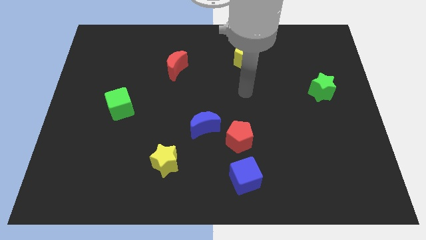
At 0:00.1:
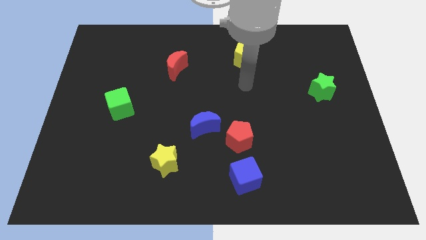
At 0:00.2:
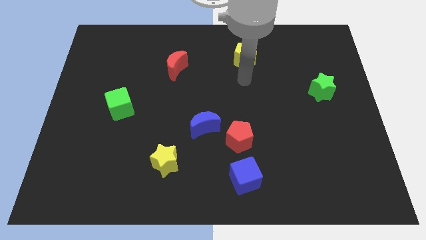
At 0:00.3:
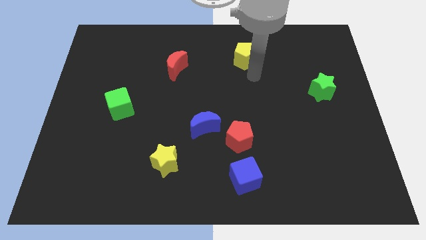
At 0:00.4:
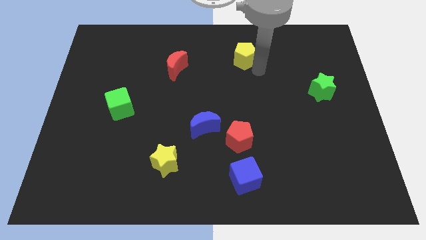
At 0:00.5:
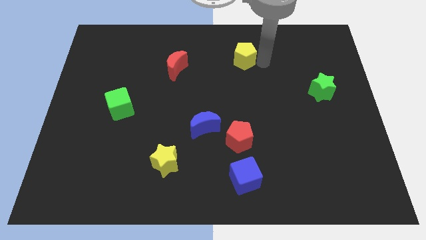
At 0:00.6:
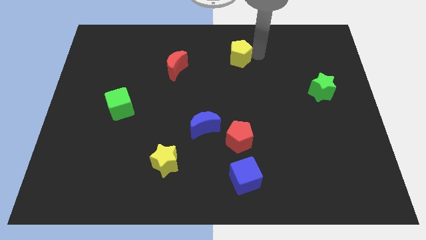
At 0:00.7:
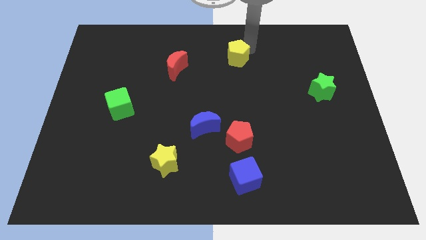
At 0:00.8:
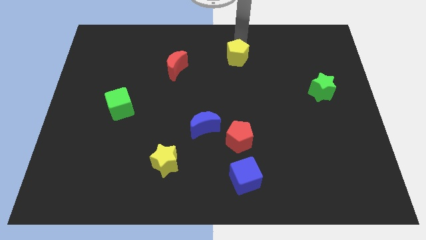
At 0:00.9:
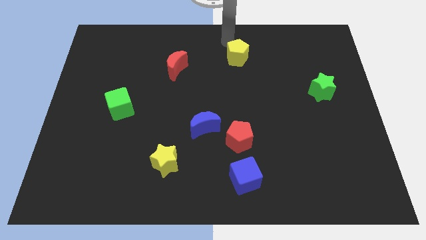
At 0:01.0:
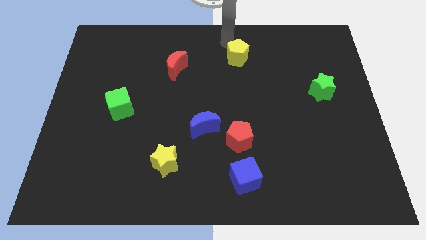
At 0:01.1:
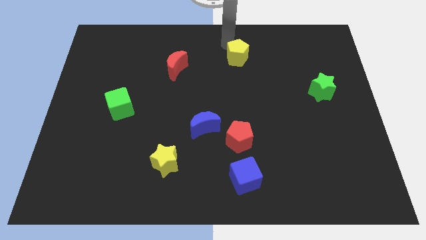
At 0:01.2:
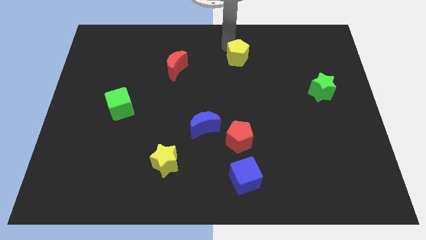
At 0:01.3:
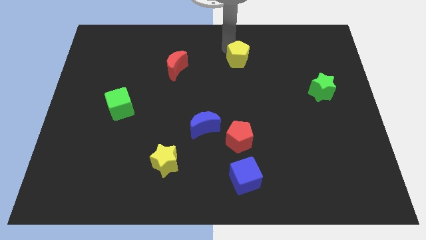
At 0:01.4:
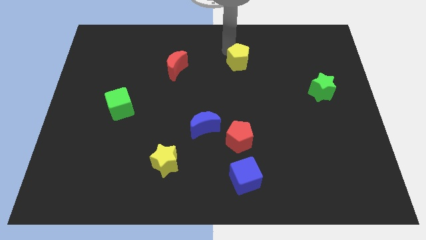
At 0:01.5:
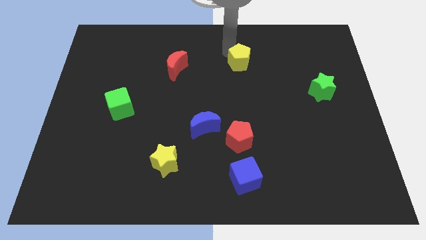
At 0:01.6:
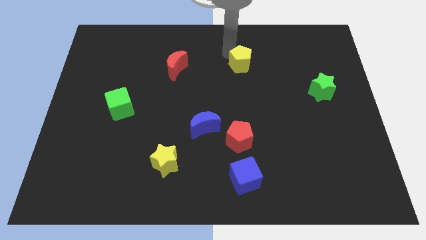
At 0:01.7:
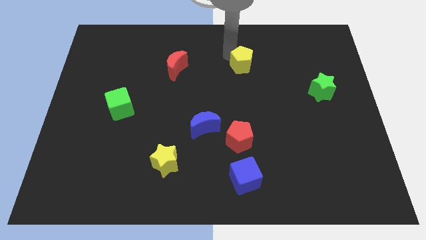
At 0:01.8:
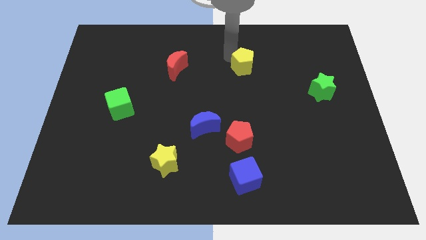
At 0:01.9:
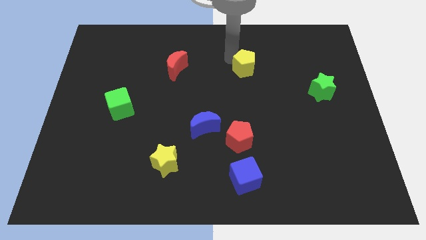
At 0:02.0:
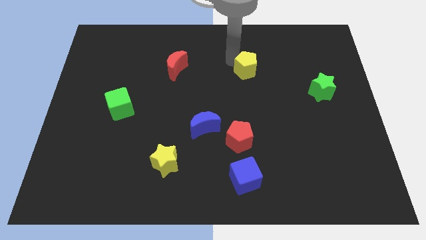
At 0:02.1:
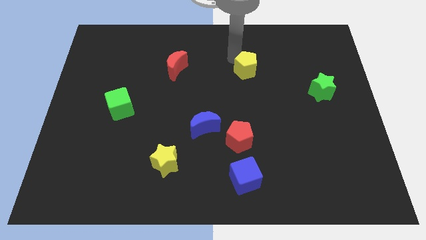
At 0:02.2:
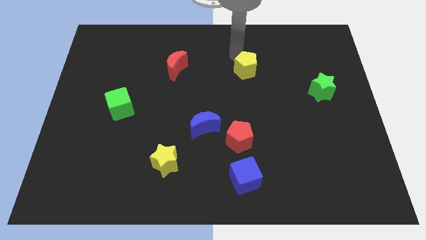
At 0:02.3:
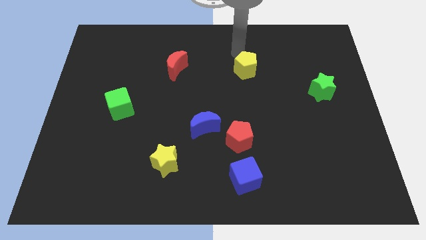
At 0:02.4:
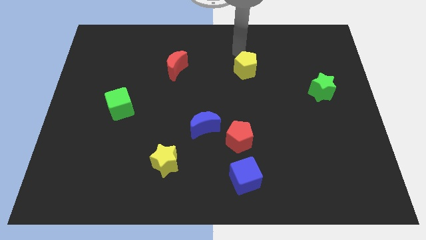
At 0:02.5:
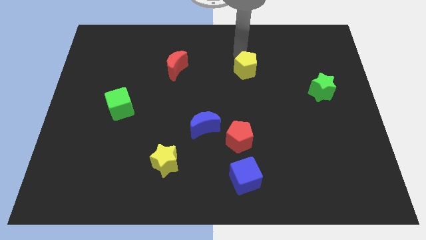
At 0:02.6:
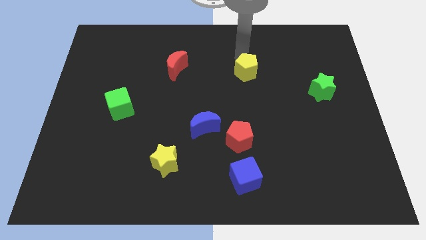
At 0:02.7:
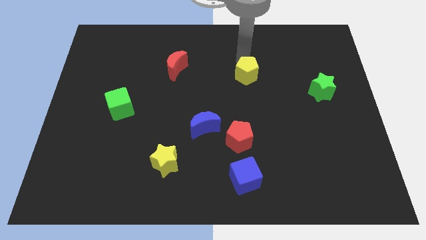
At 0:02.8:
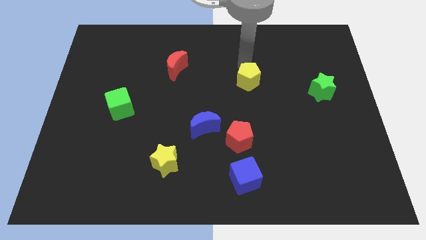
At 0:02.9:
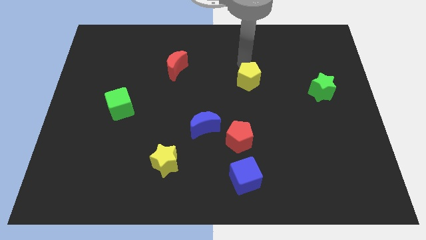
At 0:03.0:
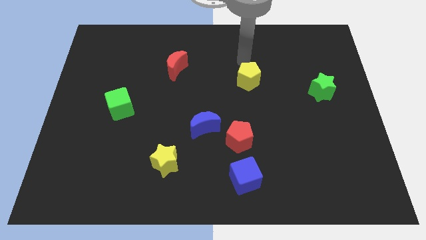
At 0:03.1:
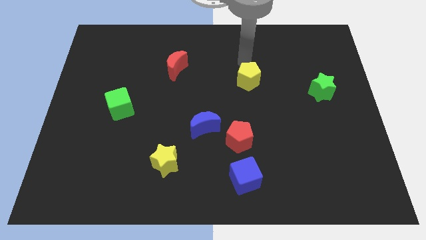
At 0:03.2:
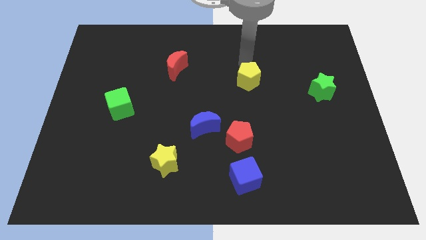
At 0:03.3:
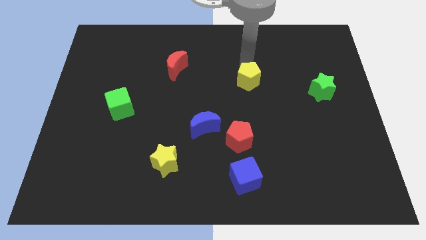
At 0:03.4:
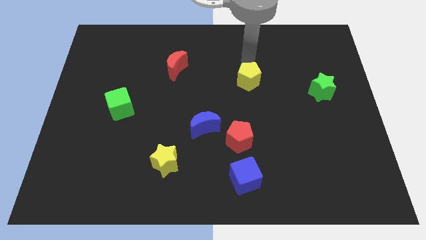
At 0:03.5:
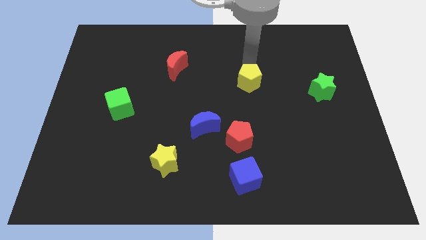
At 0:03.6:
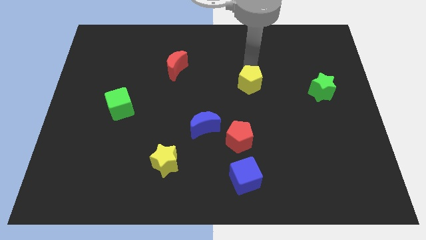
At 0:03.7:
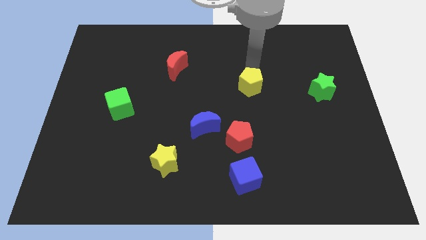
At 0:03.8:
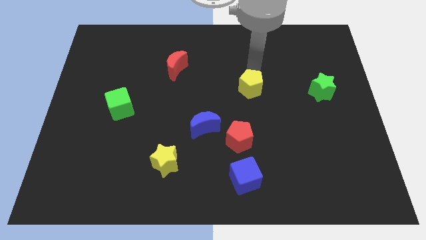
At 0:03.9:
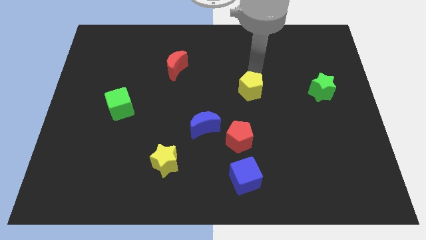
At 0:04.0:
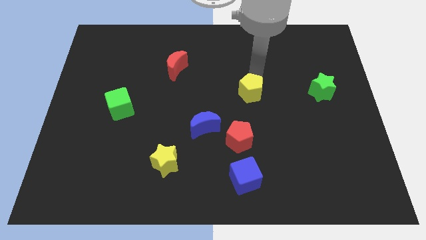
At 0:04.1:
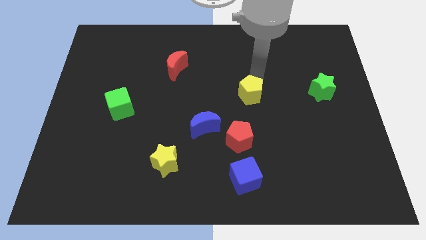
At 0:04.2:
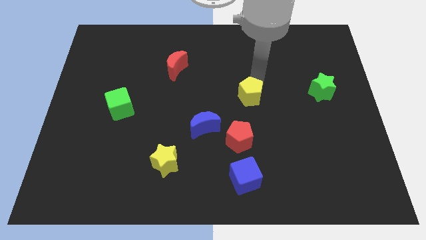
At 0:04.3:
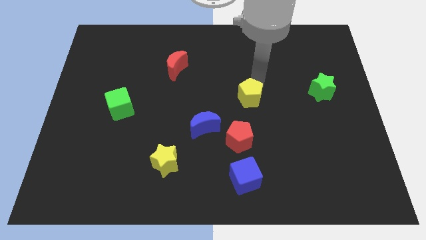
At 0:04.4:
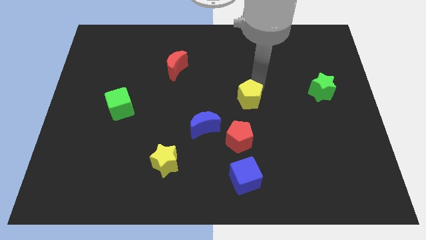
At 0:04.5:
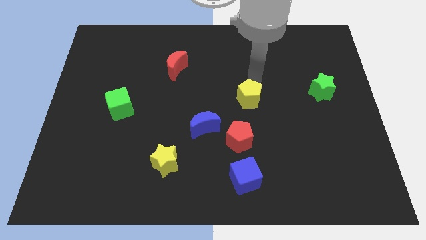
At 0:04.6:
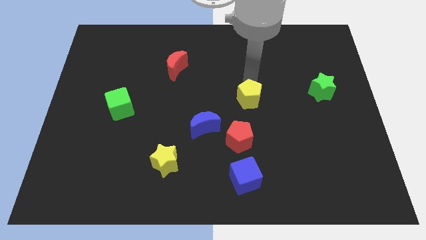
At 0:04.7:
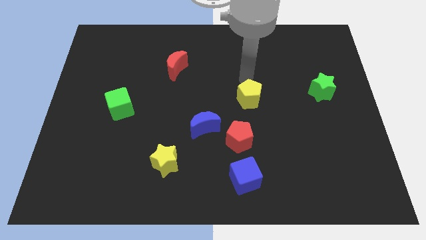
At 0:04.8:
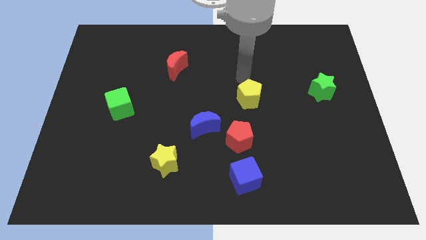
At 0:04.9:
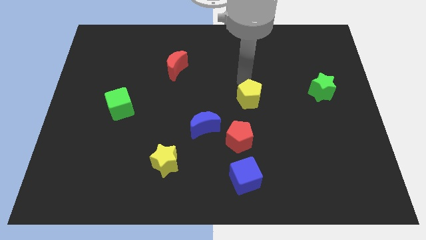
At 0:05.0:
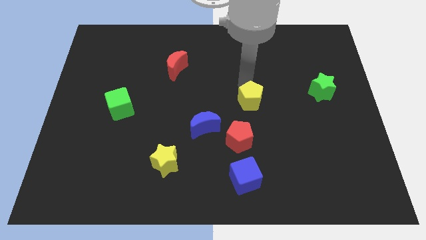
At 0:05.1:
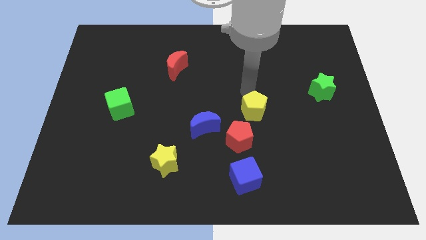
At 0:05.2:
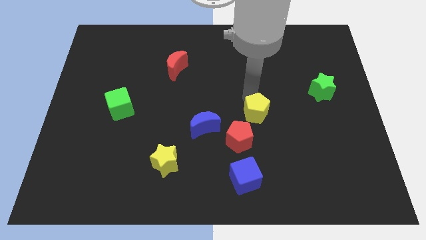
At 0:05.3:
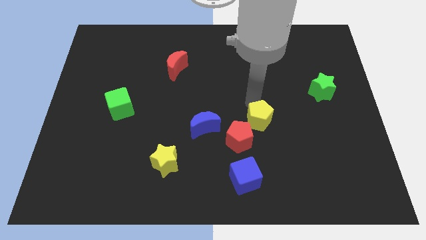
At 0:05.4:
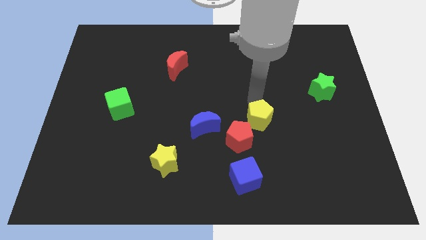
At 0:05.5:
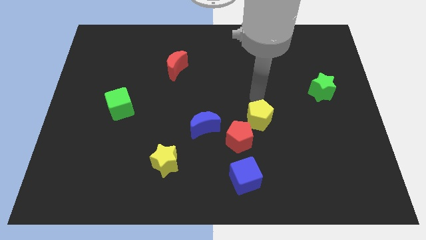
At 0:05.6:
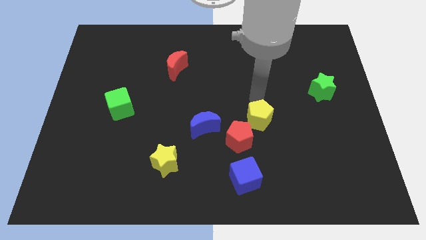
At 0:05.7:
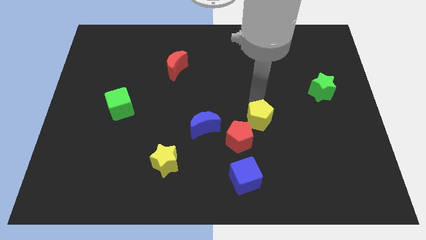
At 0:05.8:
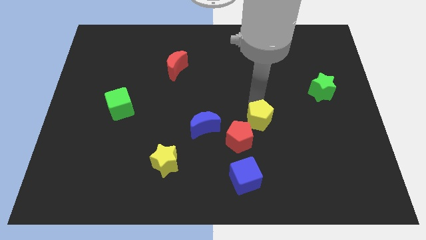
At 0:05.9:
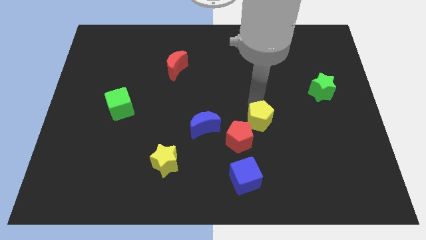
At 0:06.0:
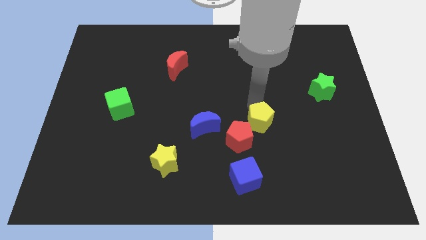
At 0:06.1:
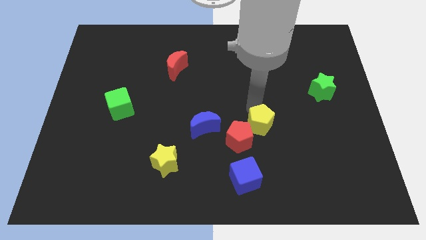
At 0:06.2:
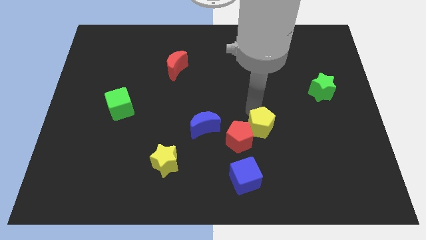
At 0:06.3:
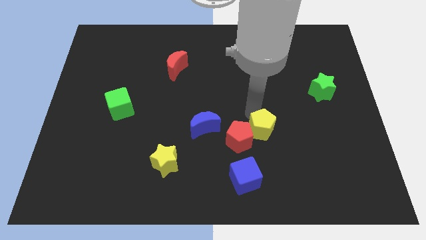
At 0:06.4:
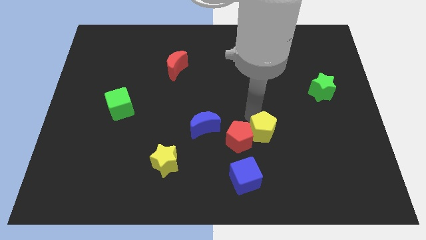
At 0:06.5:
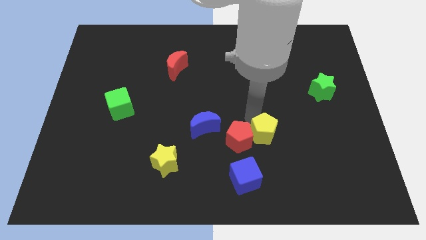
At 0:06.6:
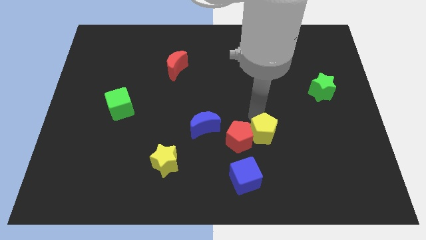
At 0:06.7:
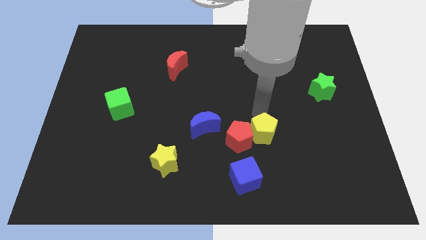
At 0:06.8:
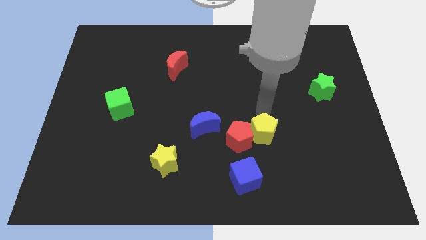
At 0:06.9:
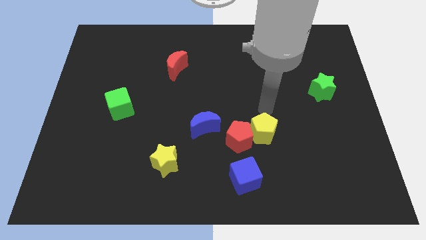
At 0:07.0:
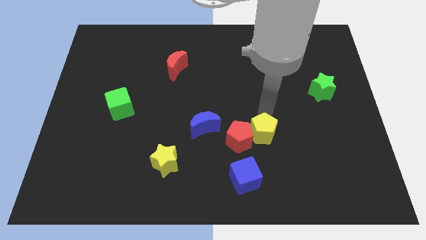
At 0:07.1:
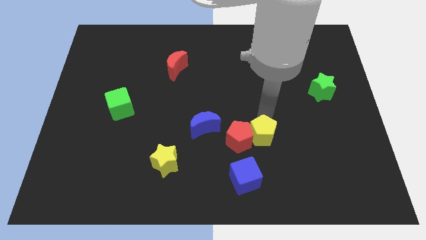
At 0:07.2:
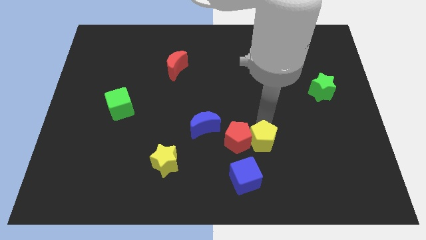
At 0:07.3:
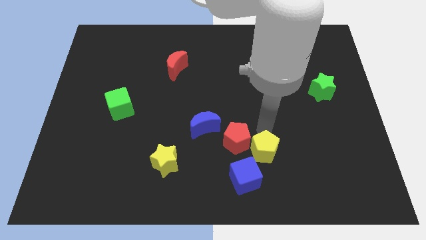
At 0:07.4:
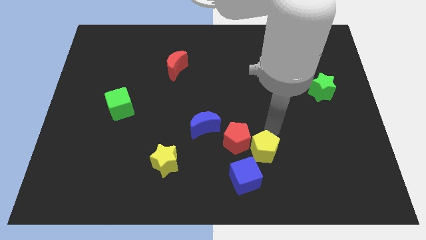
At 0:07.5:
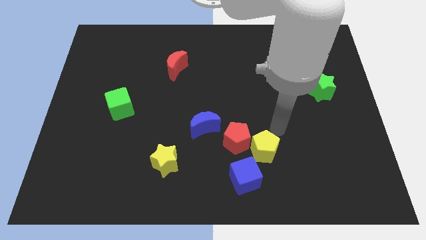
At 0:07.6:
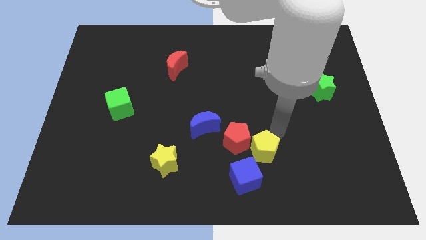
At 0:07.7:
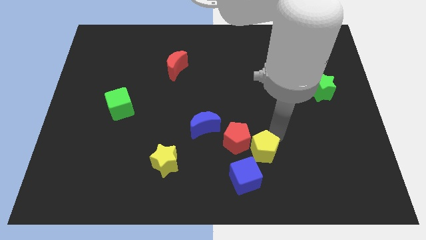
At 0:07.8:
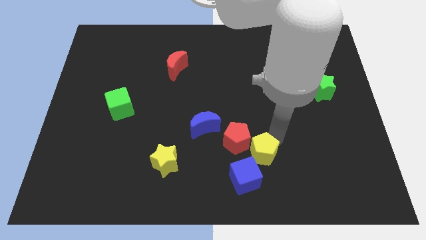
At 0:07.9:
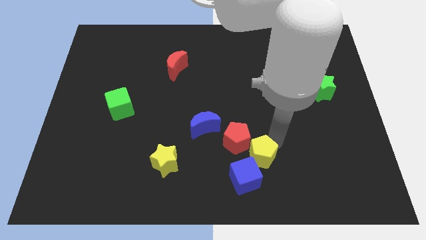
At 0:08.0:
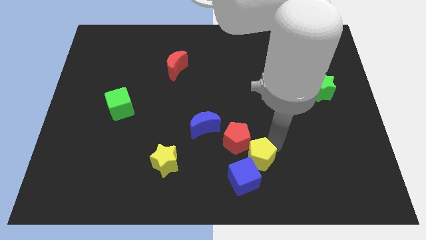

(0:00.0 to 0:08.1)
slide the yellow pentagon close to the blue cube
